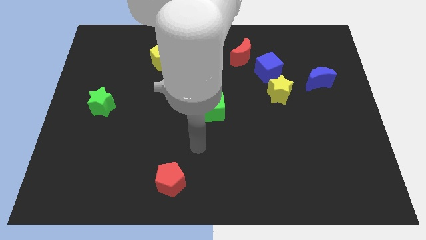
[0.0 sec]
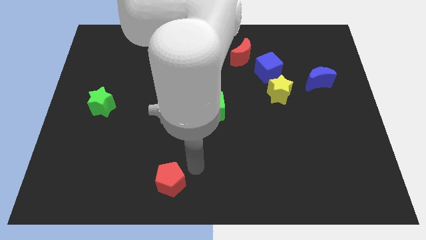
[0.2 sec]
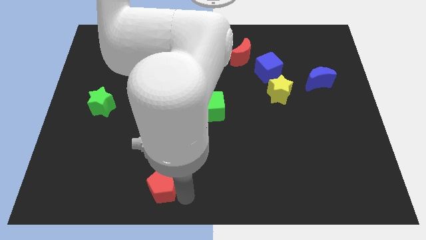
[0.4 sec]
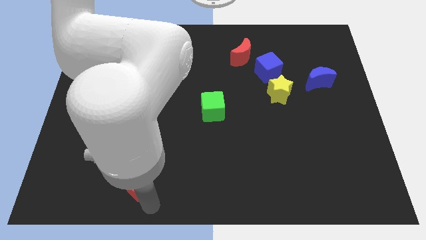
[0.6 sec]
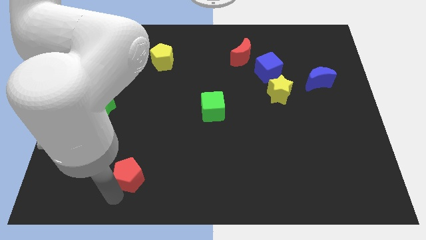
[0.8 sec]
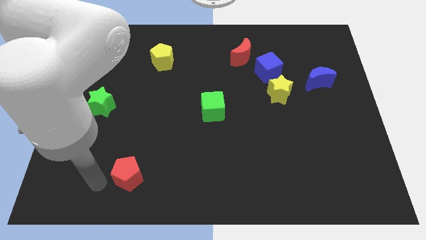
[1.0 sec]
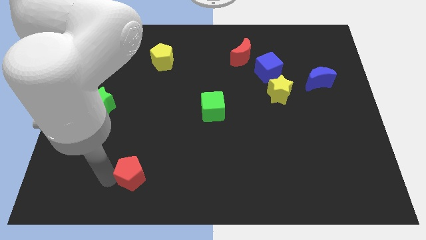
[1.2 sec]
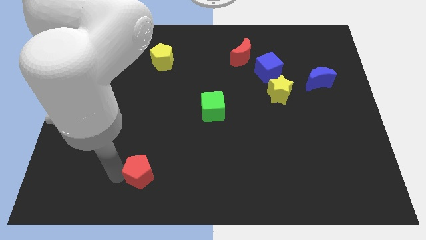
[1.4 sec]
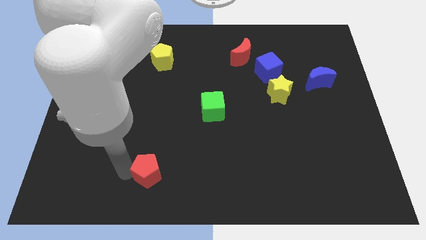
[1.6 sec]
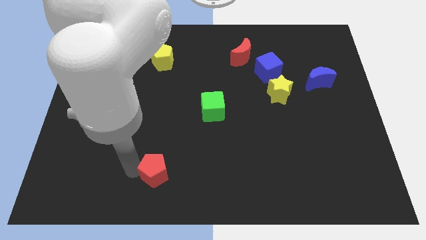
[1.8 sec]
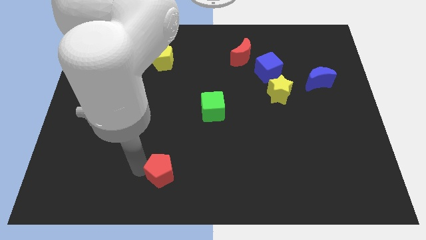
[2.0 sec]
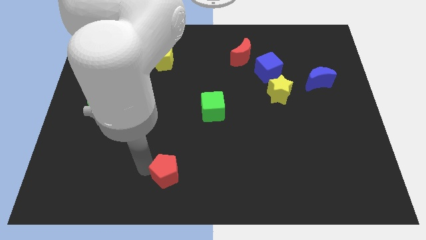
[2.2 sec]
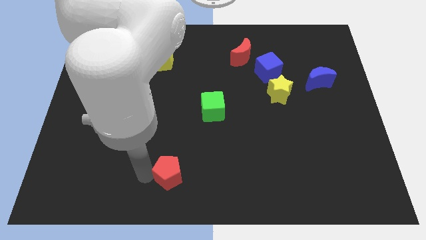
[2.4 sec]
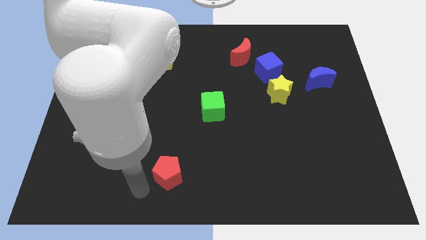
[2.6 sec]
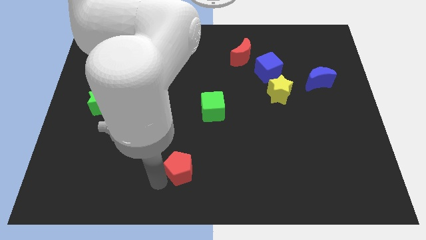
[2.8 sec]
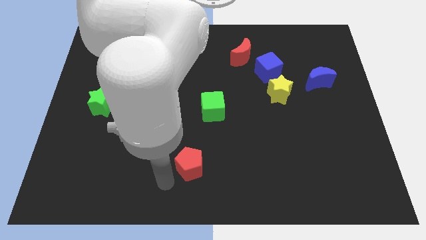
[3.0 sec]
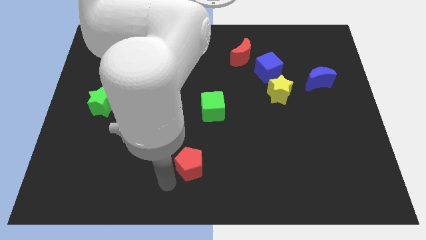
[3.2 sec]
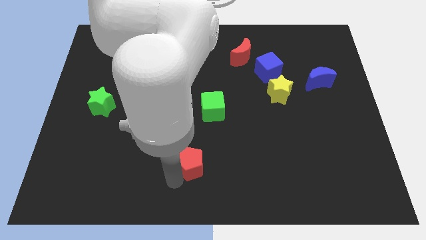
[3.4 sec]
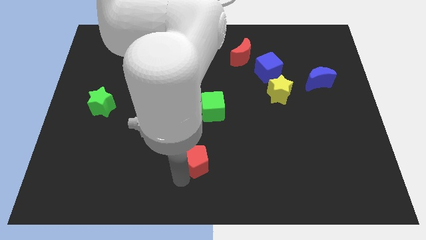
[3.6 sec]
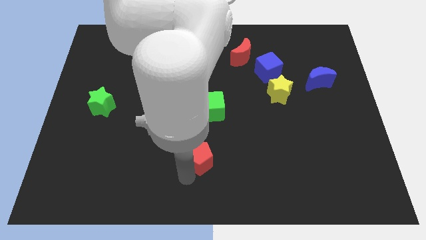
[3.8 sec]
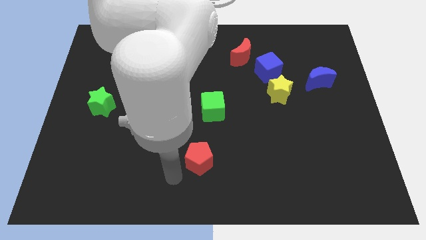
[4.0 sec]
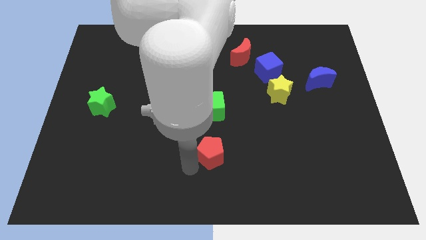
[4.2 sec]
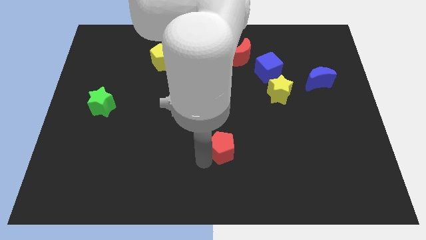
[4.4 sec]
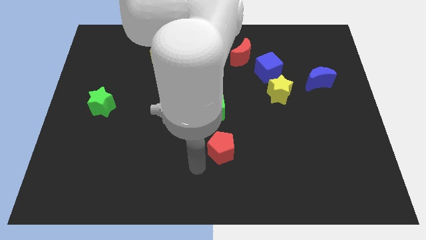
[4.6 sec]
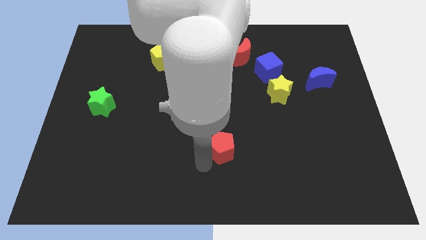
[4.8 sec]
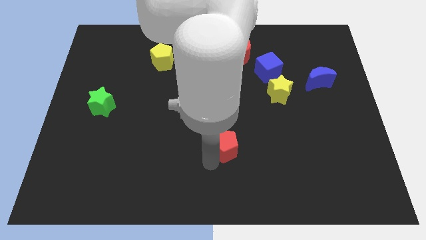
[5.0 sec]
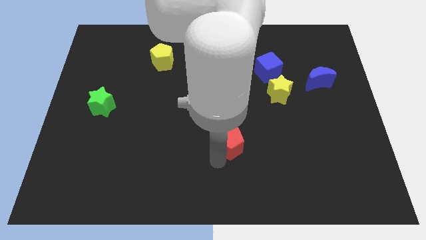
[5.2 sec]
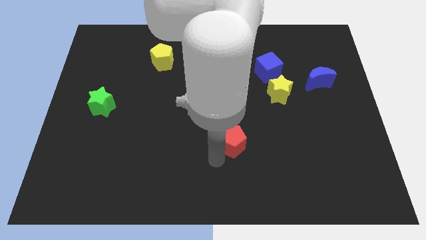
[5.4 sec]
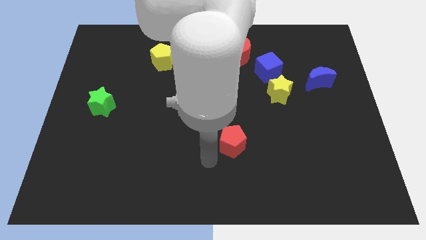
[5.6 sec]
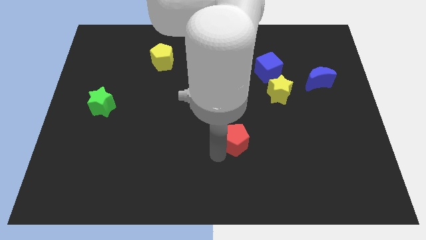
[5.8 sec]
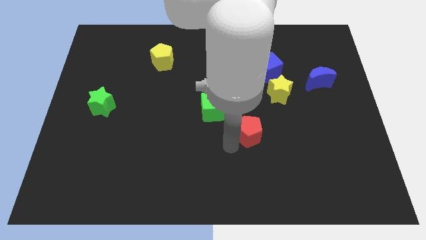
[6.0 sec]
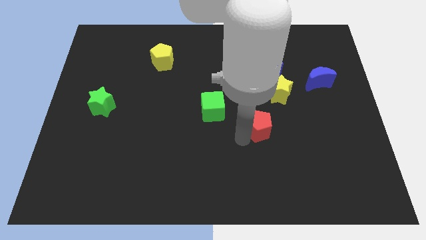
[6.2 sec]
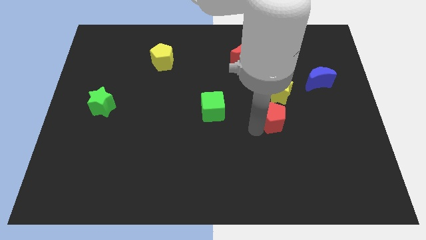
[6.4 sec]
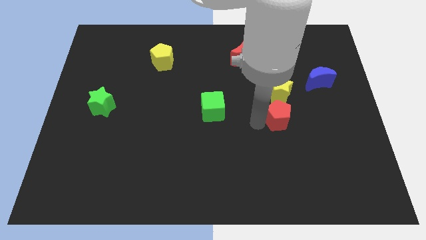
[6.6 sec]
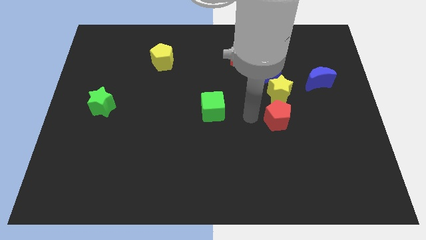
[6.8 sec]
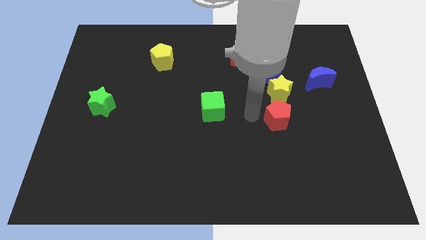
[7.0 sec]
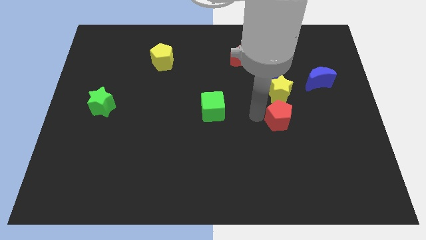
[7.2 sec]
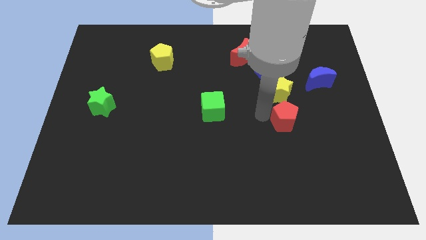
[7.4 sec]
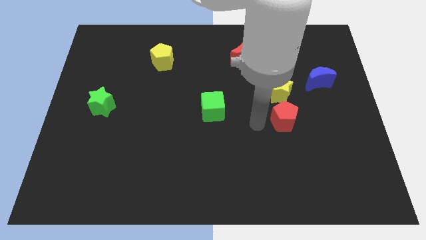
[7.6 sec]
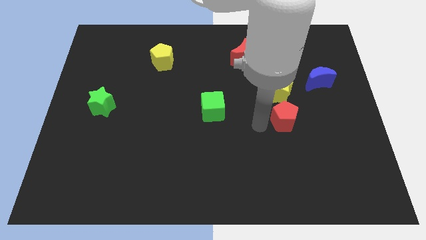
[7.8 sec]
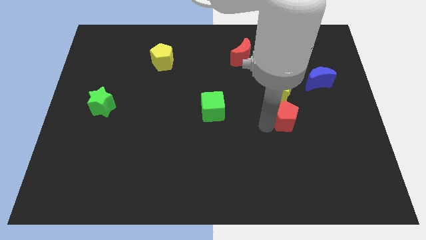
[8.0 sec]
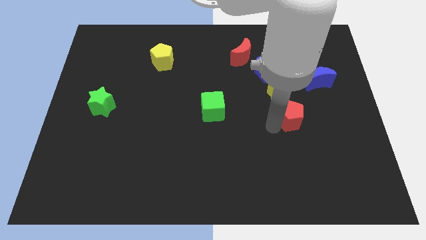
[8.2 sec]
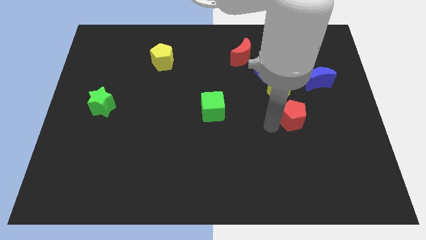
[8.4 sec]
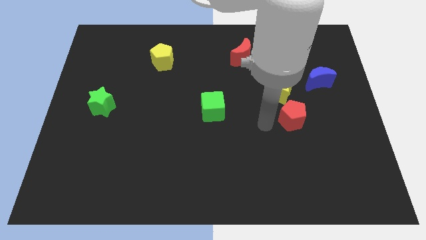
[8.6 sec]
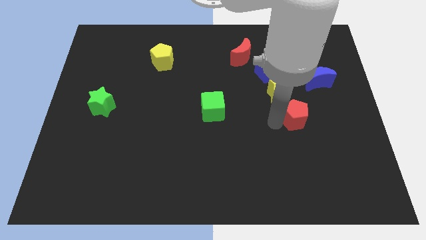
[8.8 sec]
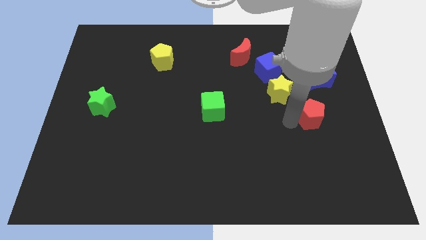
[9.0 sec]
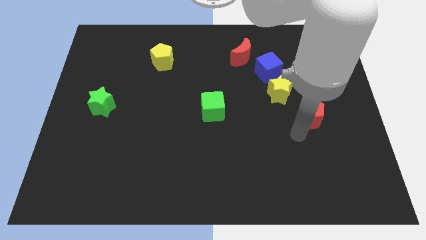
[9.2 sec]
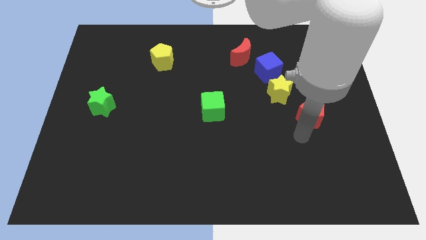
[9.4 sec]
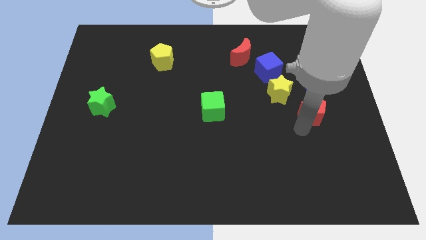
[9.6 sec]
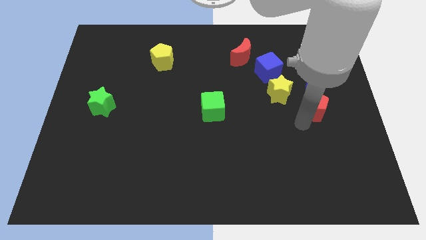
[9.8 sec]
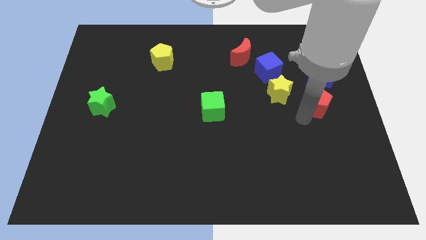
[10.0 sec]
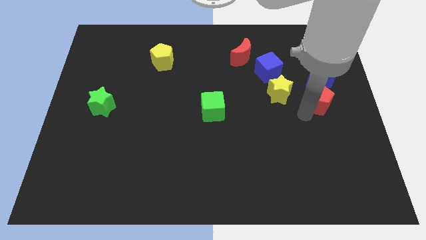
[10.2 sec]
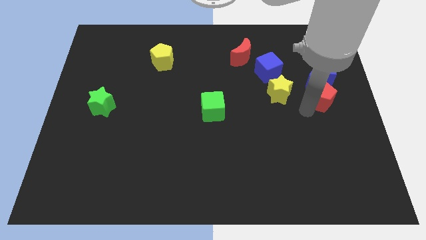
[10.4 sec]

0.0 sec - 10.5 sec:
push the red pentagon close to the blue moon

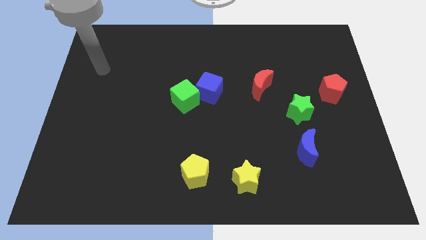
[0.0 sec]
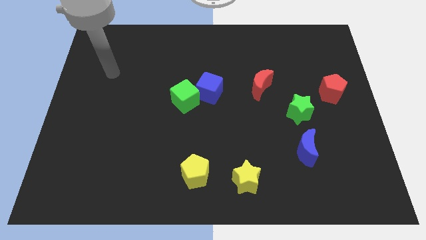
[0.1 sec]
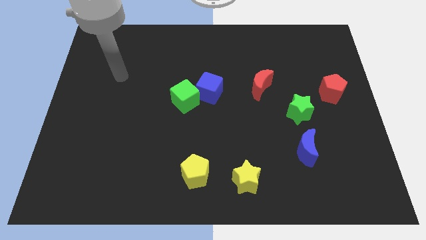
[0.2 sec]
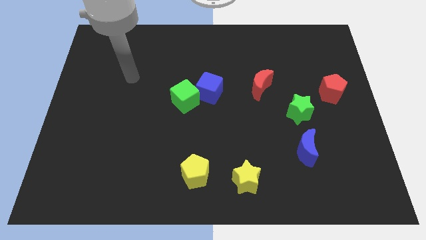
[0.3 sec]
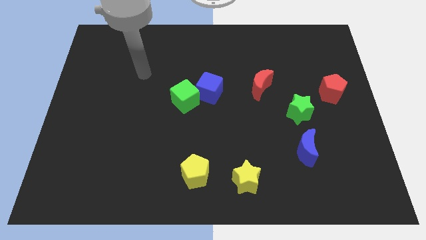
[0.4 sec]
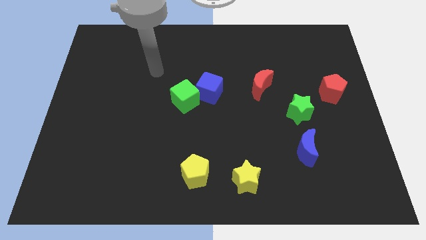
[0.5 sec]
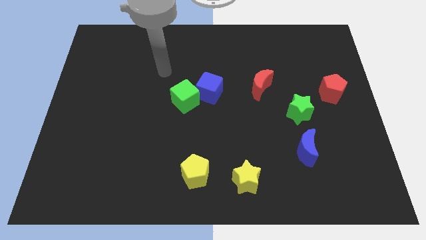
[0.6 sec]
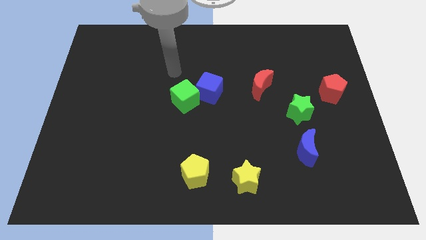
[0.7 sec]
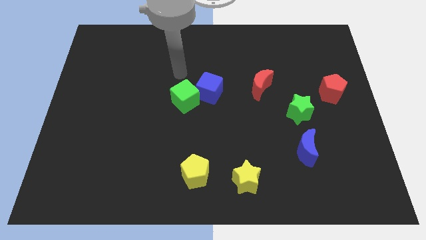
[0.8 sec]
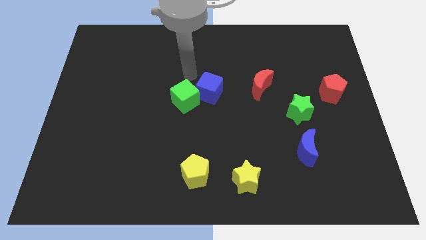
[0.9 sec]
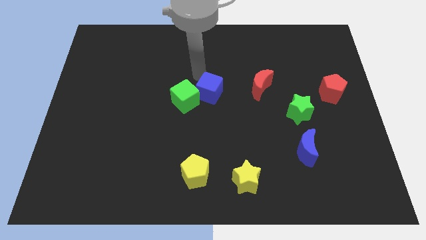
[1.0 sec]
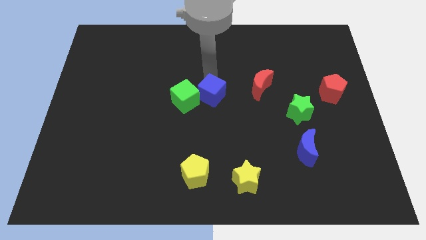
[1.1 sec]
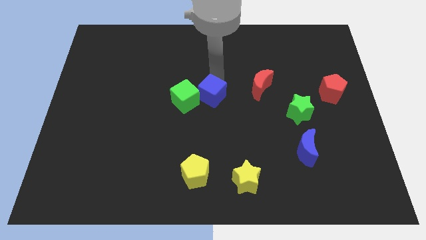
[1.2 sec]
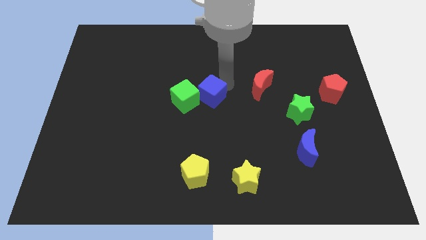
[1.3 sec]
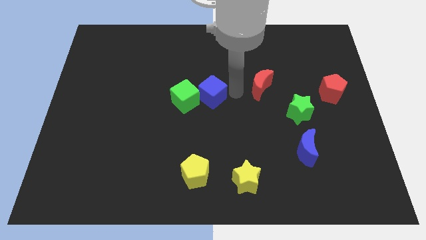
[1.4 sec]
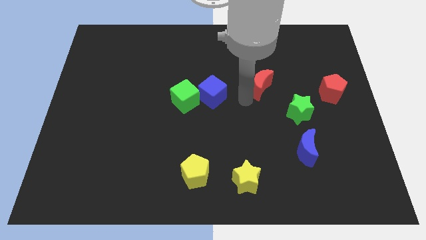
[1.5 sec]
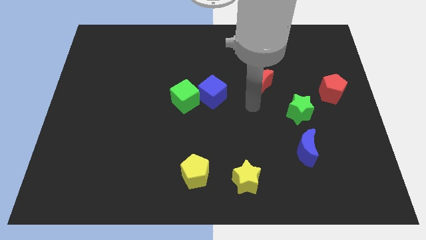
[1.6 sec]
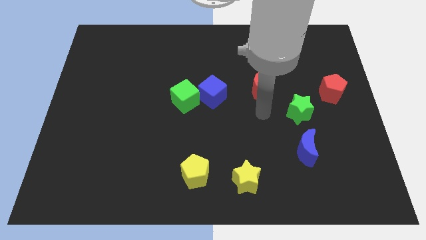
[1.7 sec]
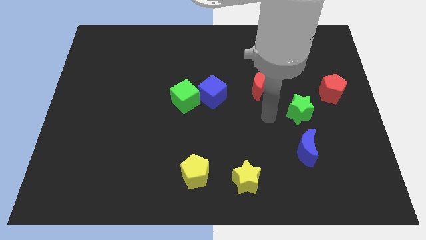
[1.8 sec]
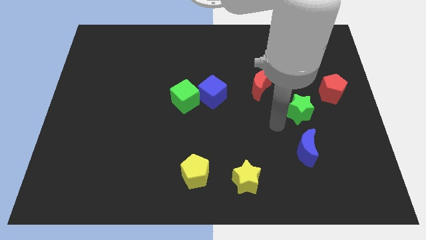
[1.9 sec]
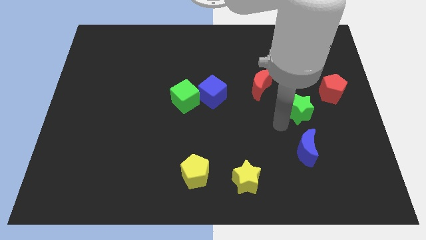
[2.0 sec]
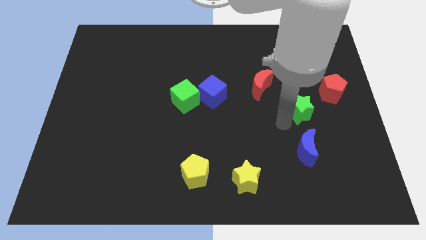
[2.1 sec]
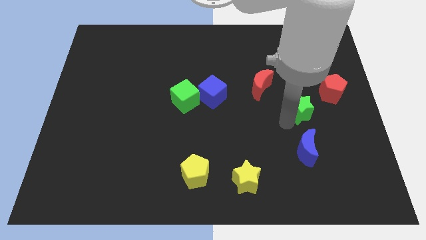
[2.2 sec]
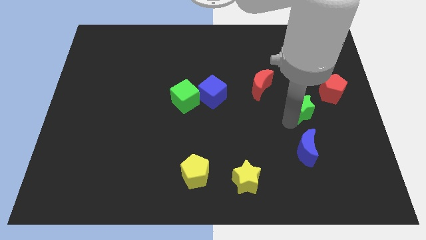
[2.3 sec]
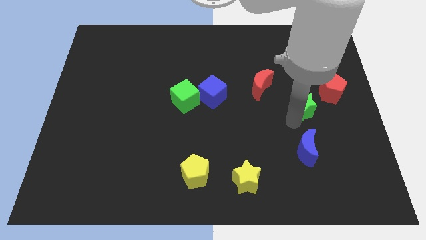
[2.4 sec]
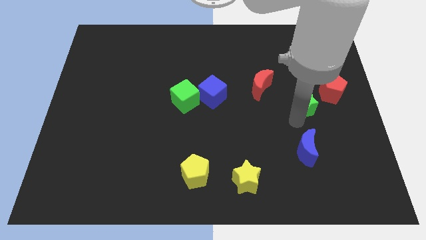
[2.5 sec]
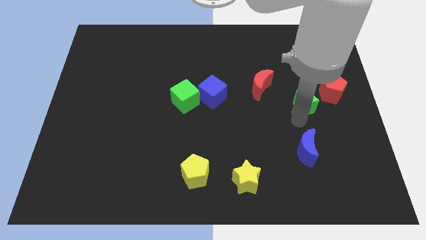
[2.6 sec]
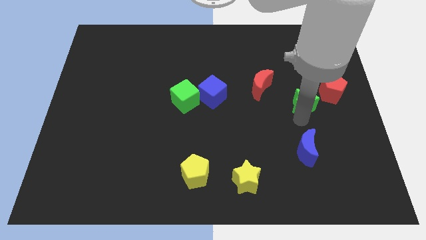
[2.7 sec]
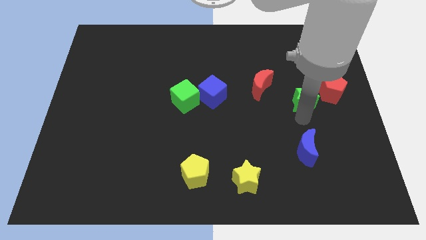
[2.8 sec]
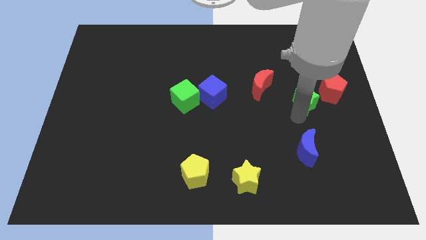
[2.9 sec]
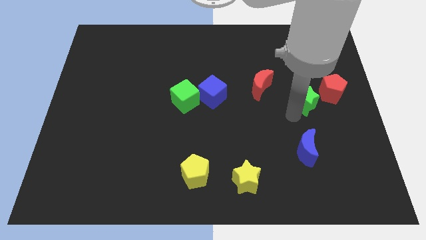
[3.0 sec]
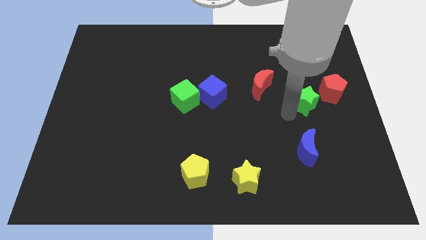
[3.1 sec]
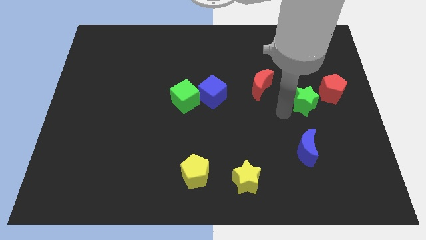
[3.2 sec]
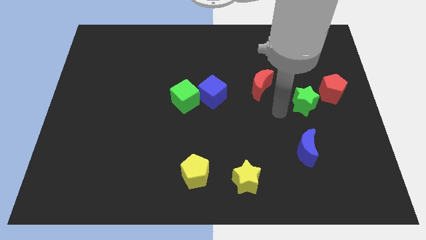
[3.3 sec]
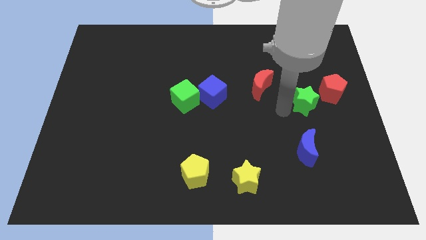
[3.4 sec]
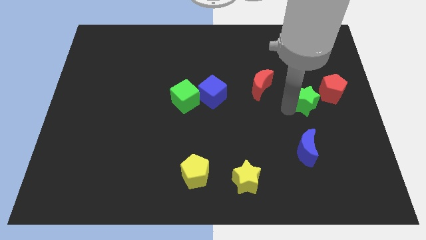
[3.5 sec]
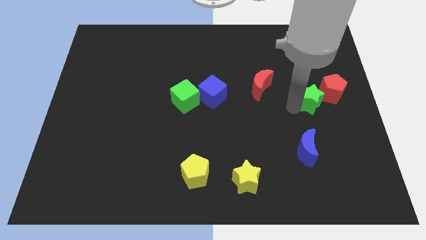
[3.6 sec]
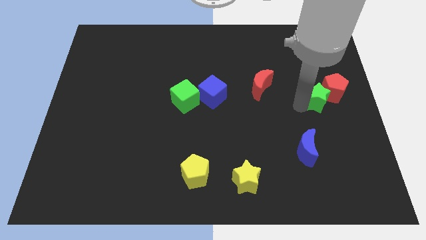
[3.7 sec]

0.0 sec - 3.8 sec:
move the green star towards the red pentagon
